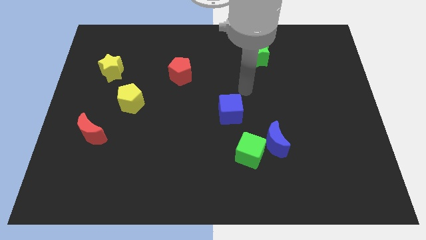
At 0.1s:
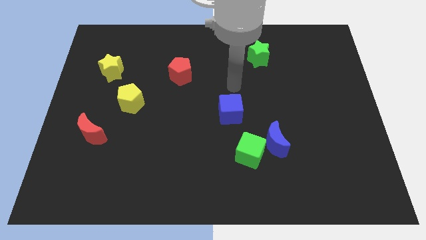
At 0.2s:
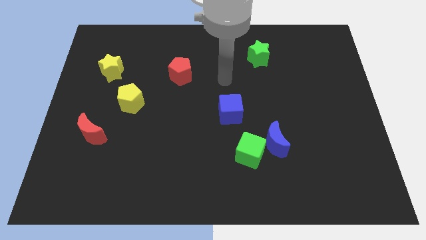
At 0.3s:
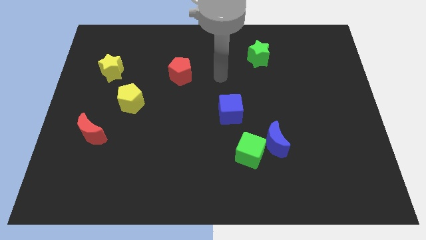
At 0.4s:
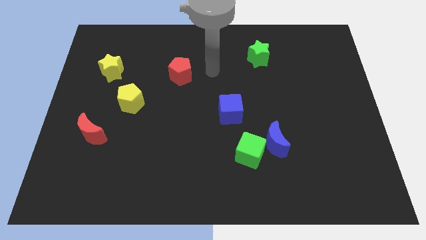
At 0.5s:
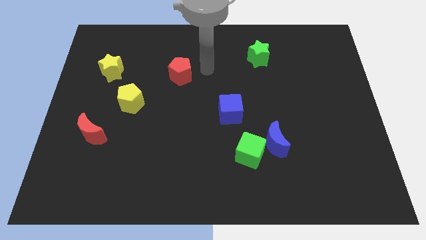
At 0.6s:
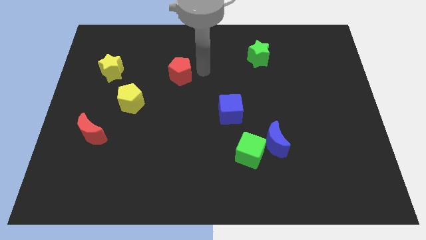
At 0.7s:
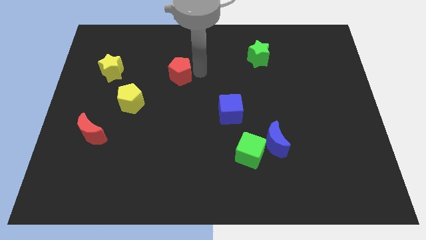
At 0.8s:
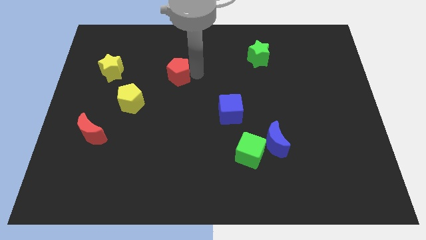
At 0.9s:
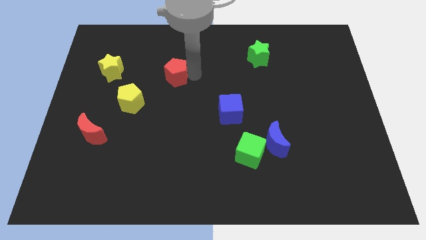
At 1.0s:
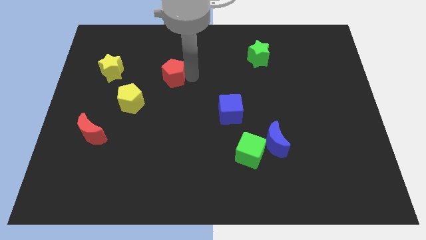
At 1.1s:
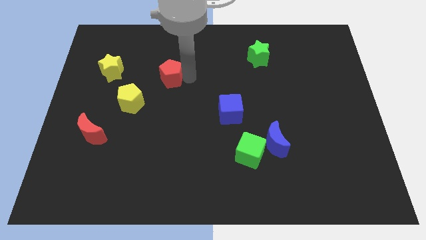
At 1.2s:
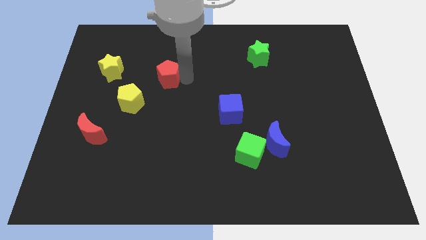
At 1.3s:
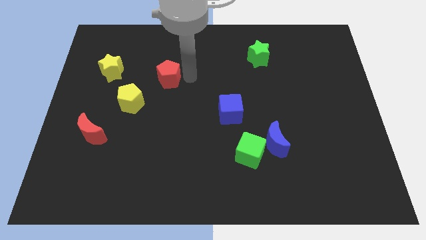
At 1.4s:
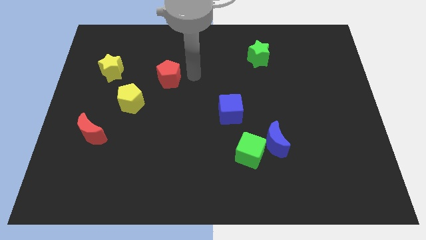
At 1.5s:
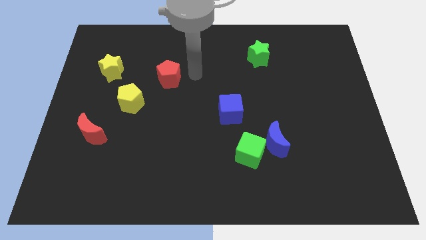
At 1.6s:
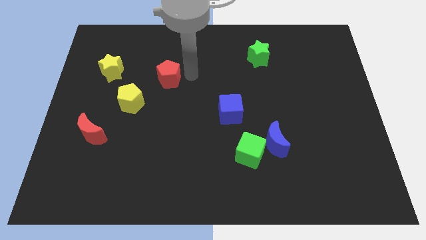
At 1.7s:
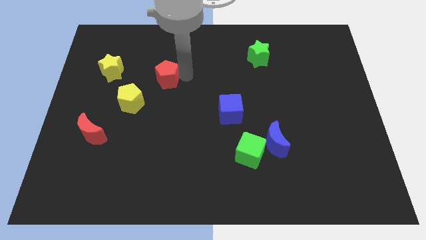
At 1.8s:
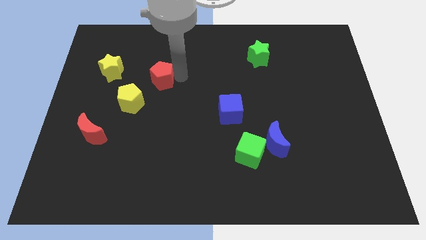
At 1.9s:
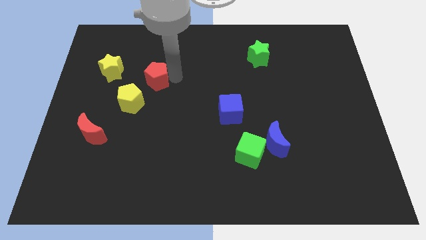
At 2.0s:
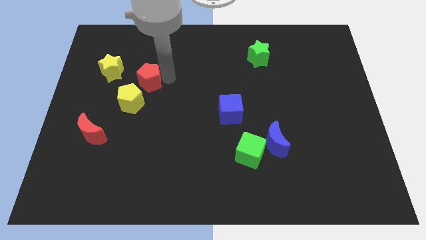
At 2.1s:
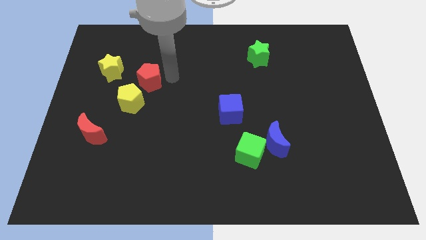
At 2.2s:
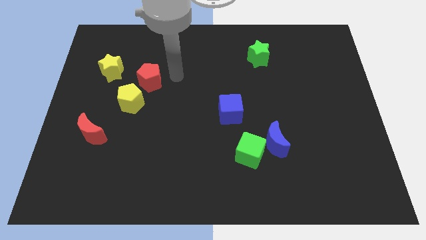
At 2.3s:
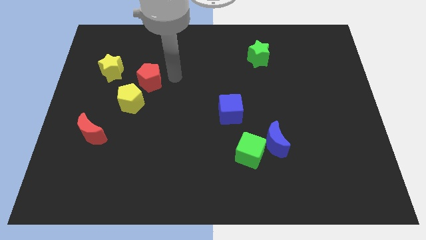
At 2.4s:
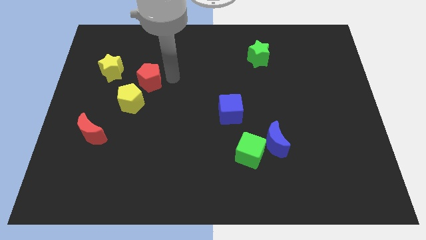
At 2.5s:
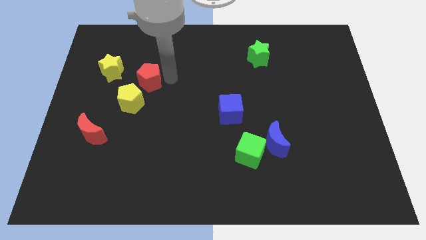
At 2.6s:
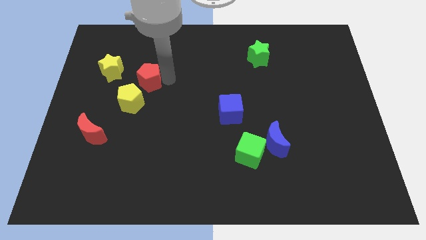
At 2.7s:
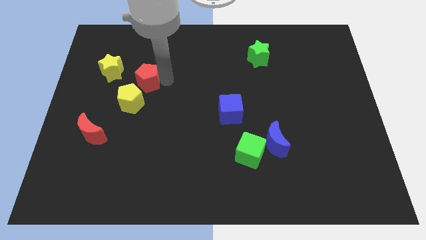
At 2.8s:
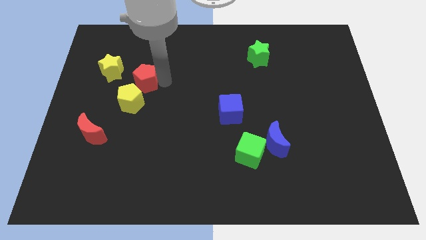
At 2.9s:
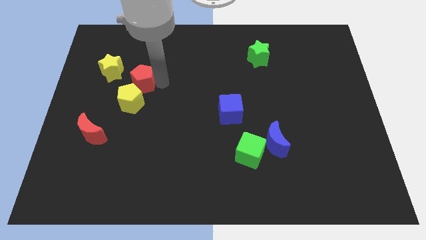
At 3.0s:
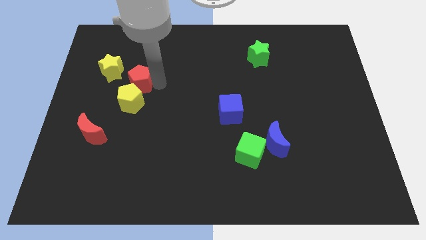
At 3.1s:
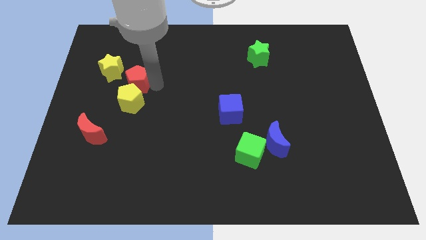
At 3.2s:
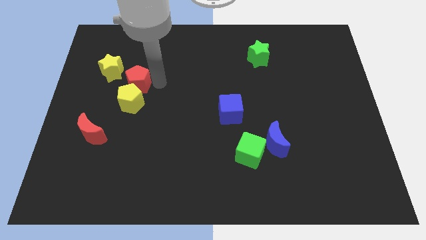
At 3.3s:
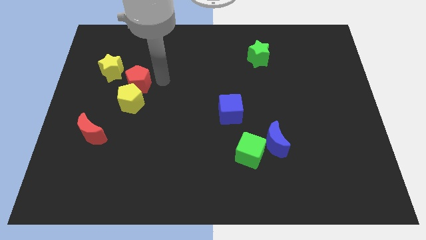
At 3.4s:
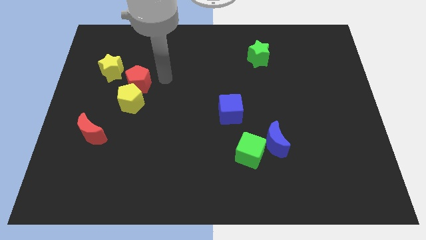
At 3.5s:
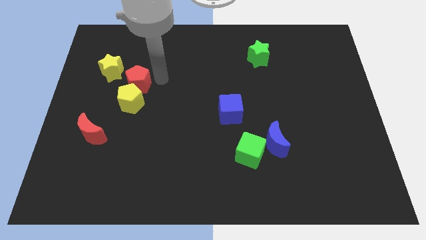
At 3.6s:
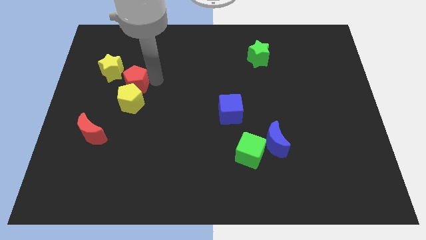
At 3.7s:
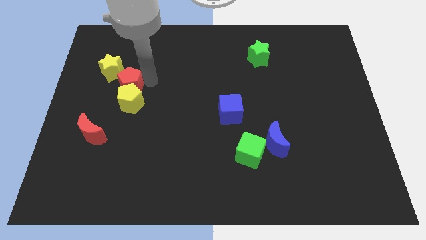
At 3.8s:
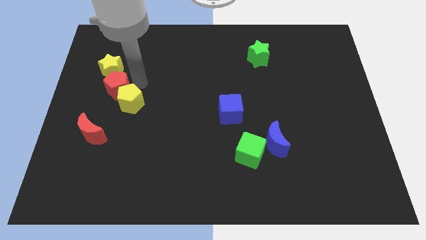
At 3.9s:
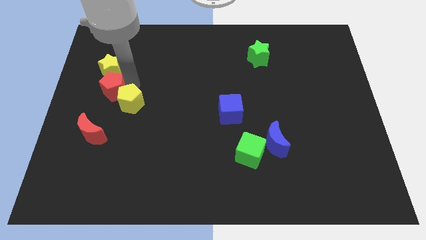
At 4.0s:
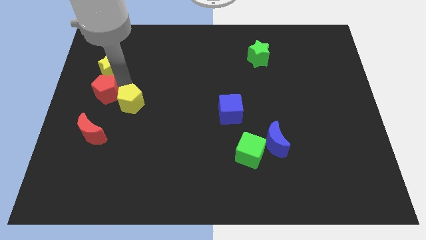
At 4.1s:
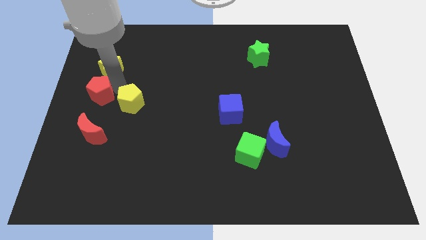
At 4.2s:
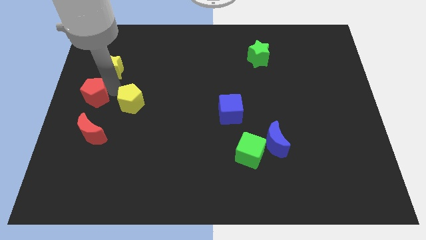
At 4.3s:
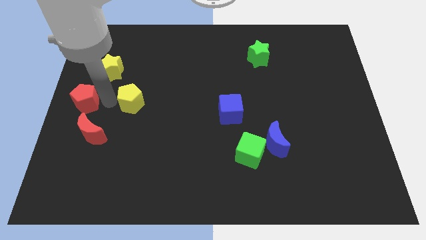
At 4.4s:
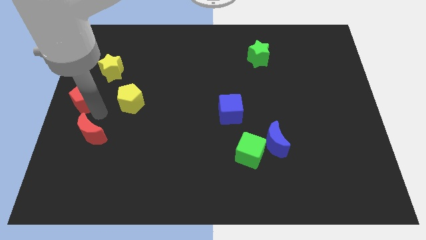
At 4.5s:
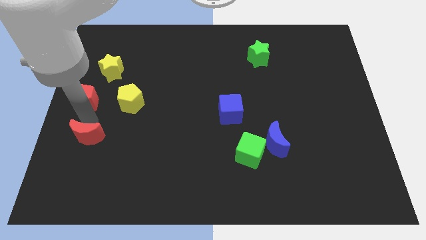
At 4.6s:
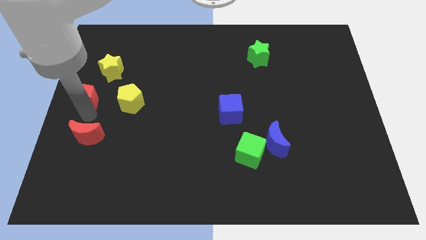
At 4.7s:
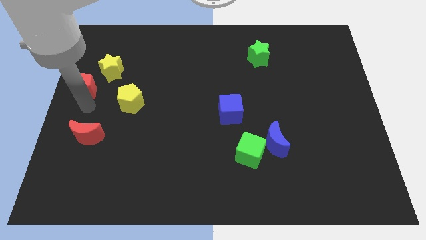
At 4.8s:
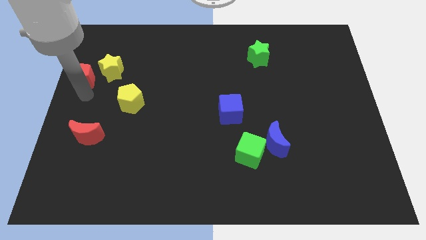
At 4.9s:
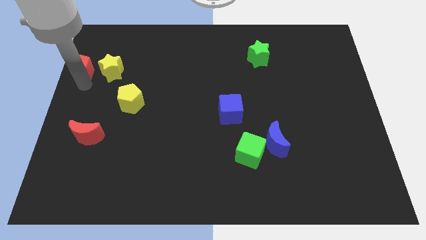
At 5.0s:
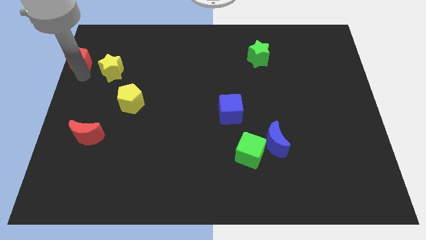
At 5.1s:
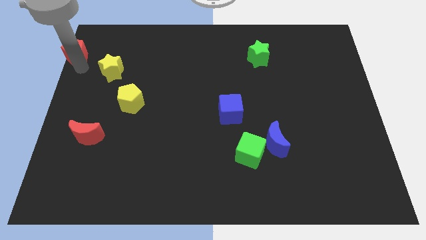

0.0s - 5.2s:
move the red pentagon to the top left corner
